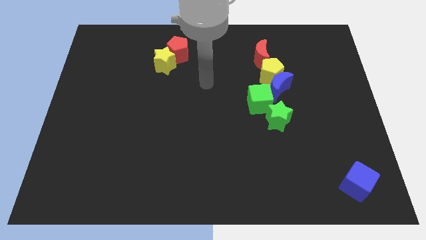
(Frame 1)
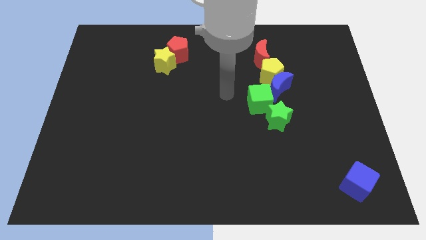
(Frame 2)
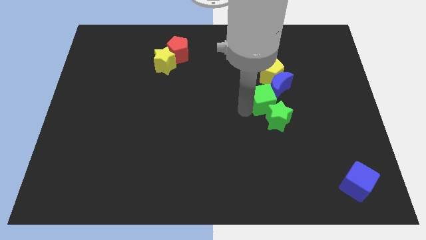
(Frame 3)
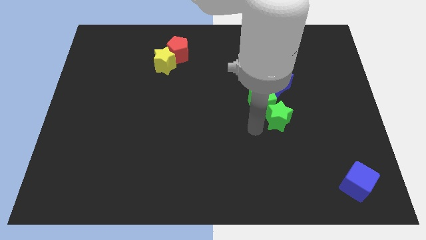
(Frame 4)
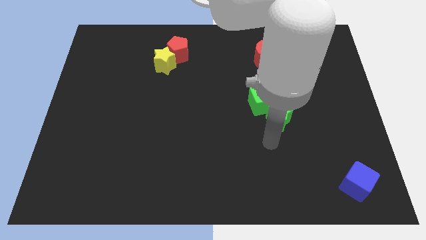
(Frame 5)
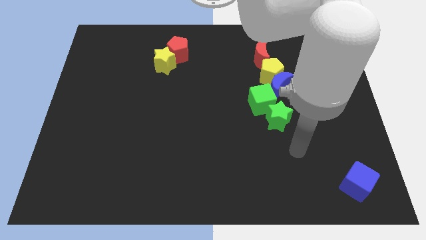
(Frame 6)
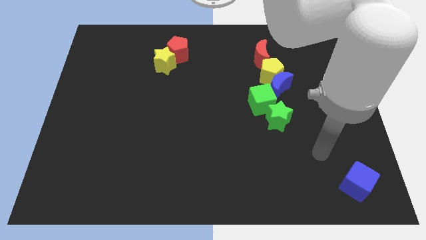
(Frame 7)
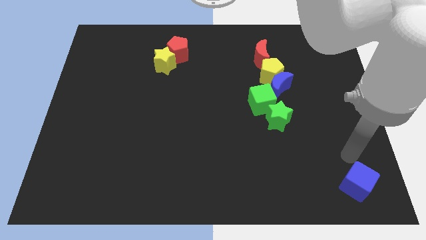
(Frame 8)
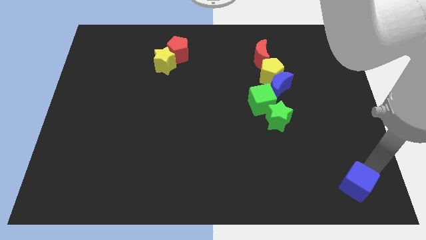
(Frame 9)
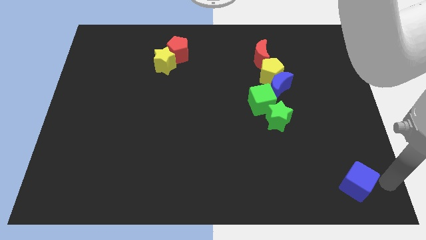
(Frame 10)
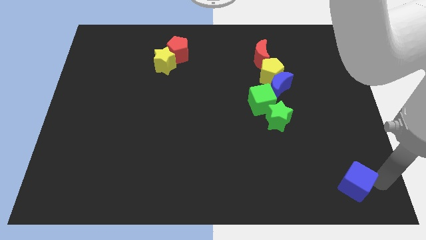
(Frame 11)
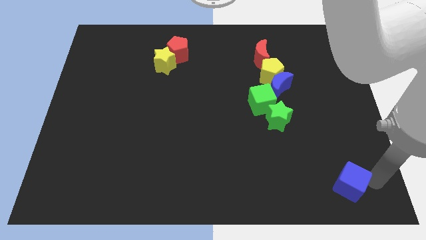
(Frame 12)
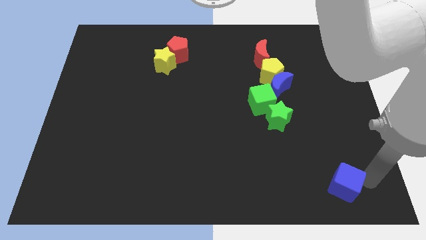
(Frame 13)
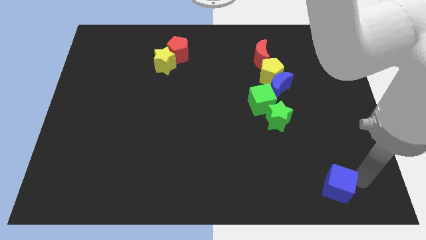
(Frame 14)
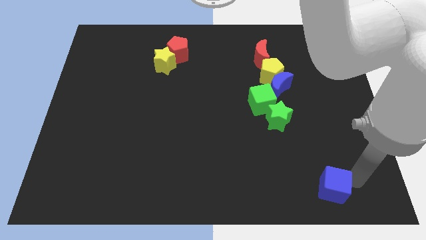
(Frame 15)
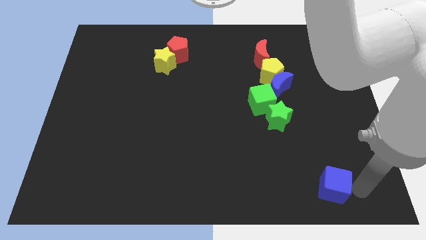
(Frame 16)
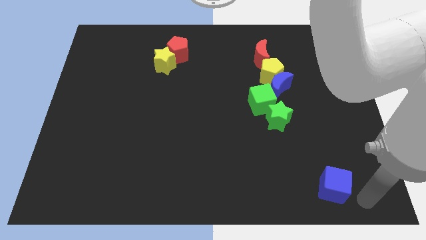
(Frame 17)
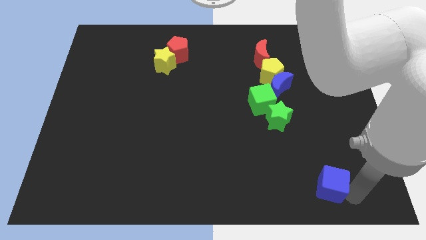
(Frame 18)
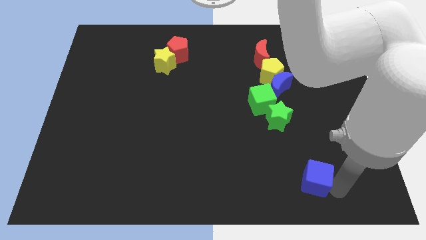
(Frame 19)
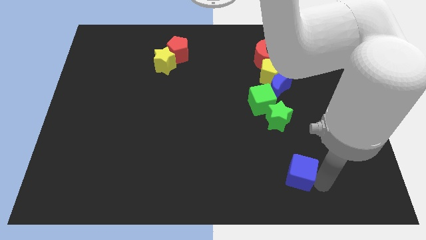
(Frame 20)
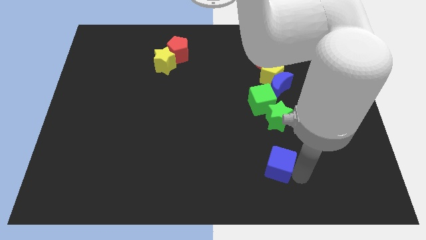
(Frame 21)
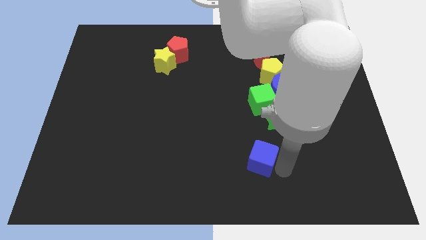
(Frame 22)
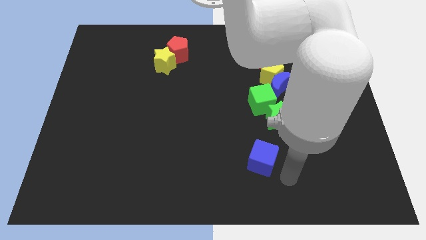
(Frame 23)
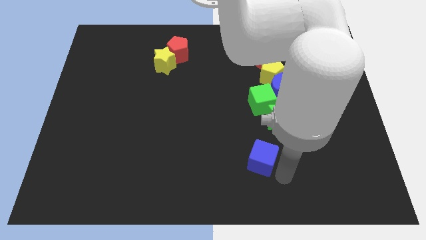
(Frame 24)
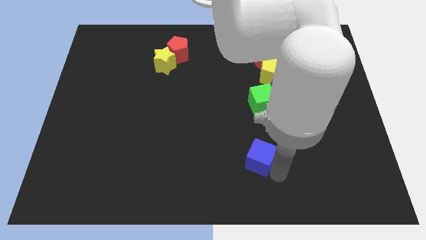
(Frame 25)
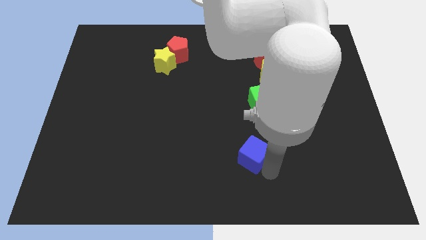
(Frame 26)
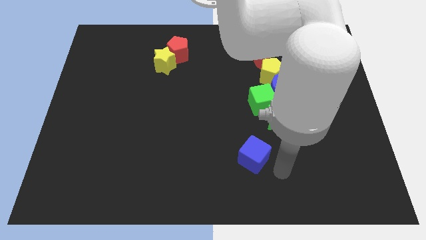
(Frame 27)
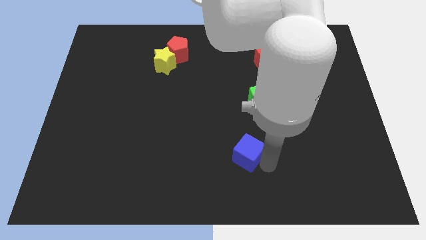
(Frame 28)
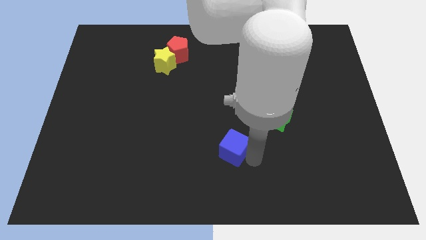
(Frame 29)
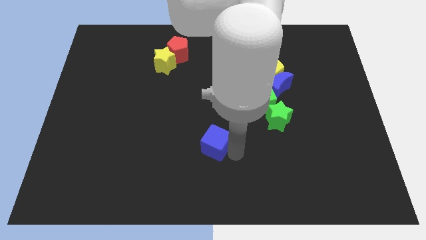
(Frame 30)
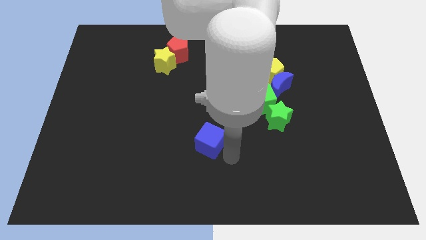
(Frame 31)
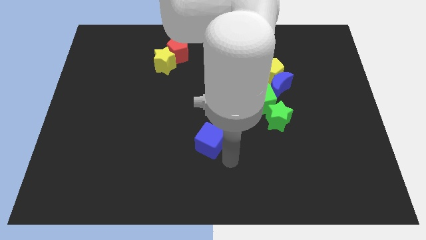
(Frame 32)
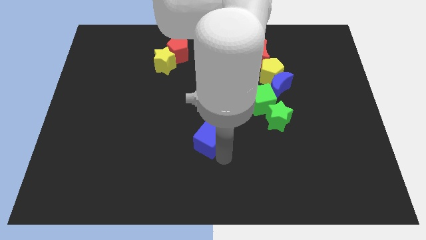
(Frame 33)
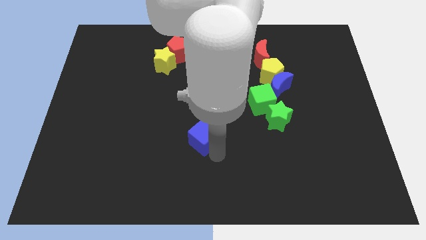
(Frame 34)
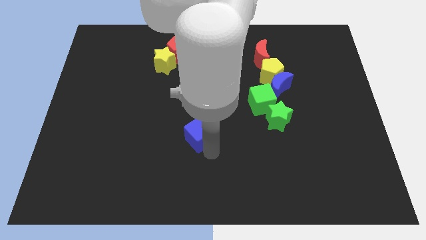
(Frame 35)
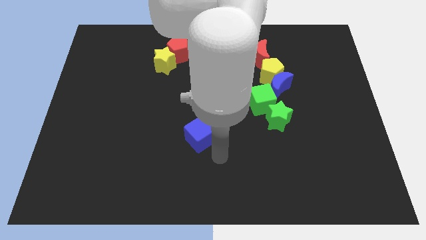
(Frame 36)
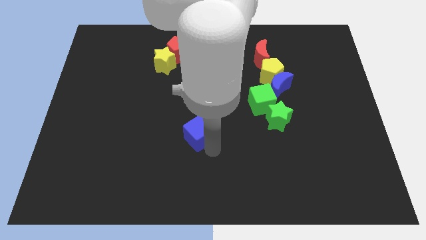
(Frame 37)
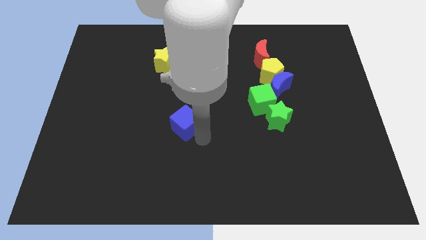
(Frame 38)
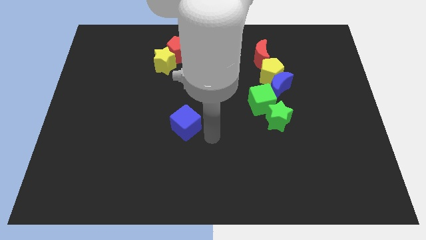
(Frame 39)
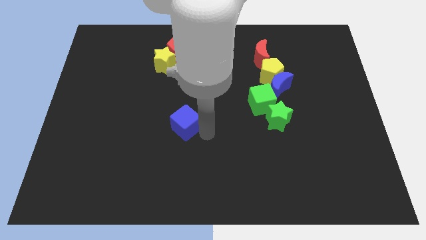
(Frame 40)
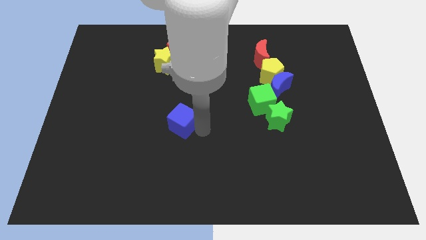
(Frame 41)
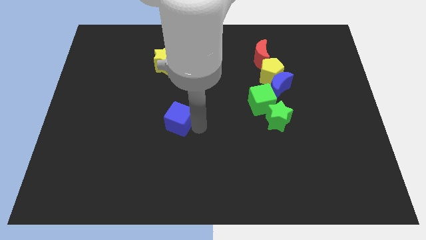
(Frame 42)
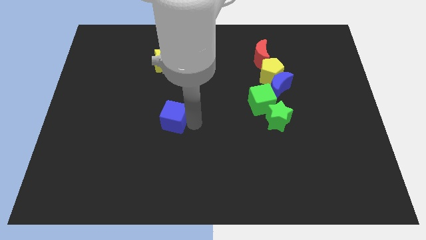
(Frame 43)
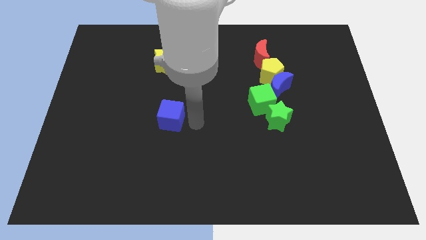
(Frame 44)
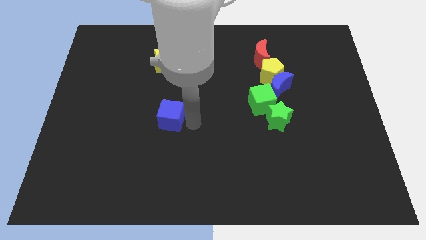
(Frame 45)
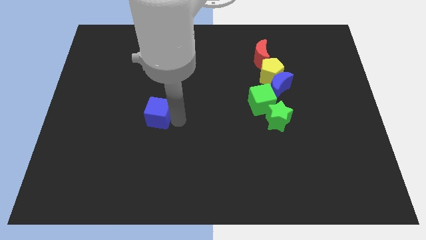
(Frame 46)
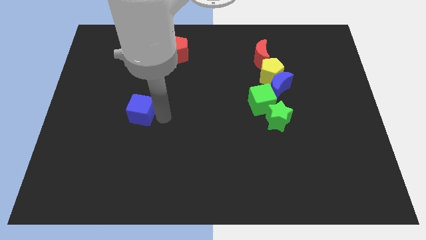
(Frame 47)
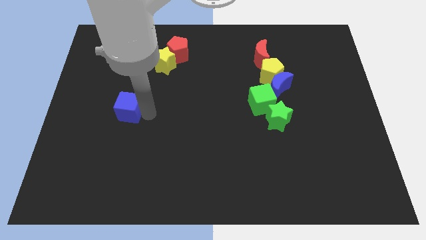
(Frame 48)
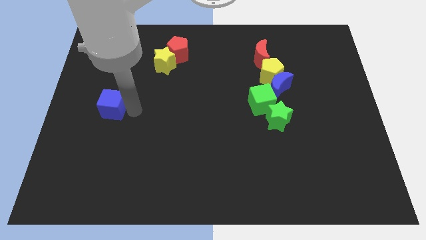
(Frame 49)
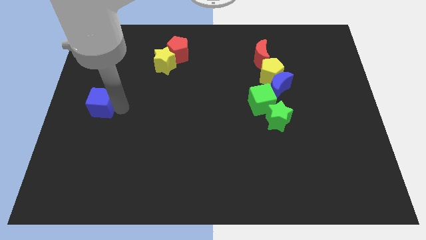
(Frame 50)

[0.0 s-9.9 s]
push the blue cube to the left side of the board
